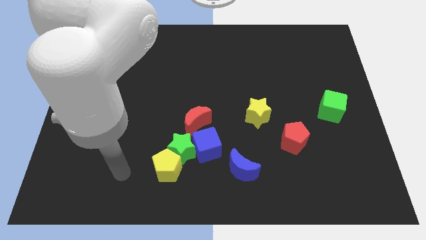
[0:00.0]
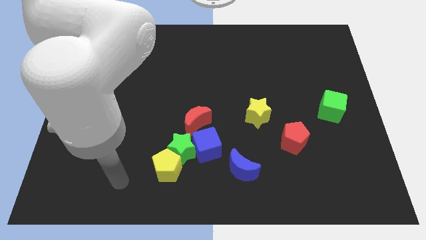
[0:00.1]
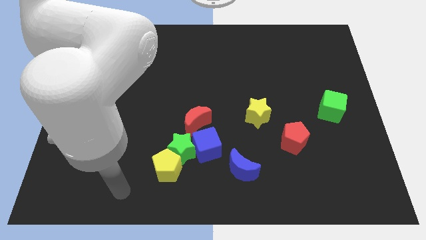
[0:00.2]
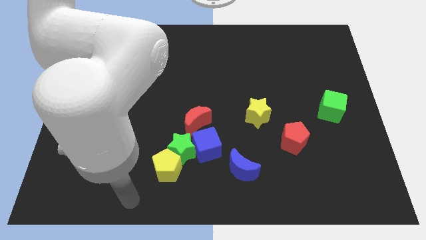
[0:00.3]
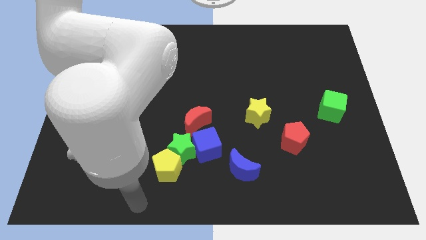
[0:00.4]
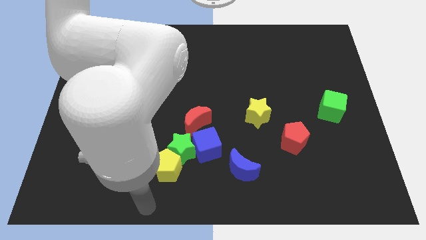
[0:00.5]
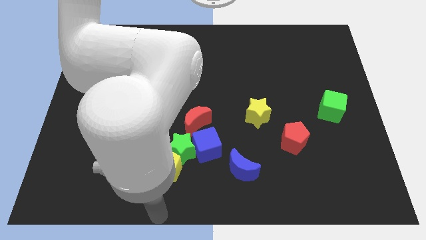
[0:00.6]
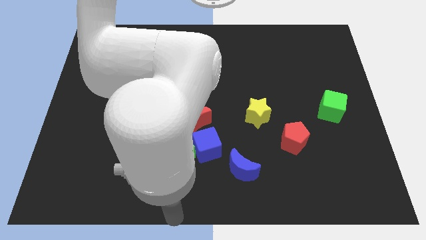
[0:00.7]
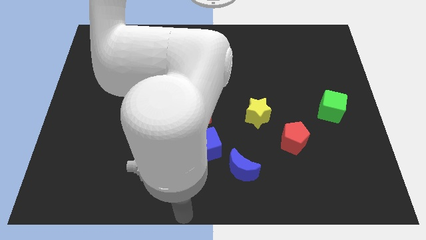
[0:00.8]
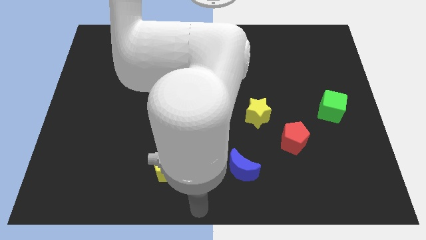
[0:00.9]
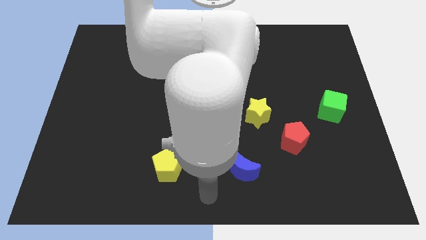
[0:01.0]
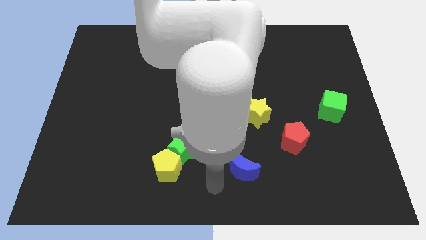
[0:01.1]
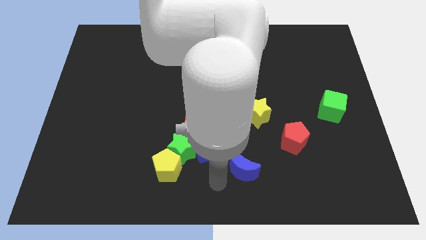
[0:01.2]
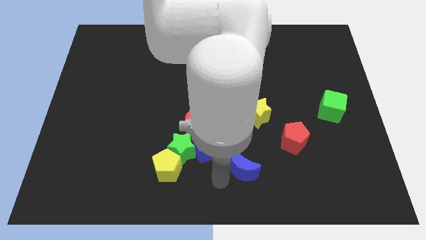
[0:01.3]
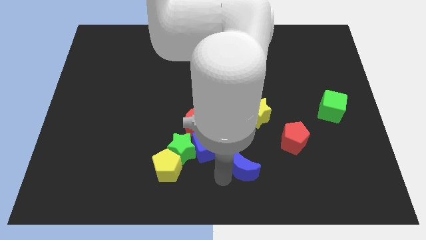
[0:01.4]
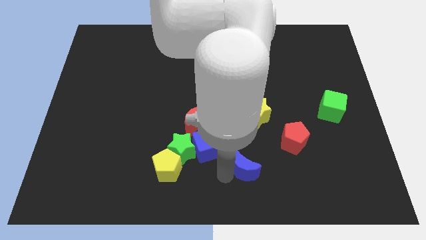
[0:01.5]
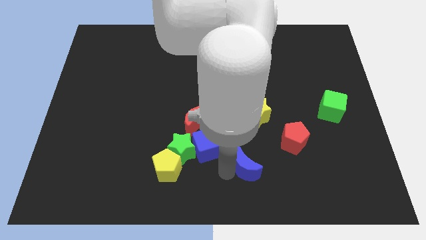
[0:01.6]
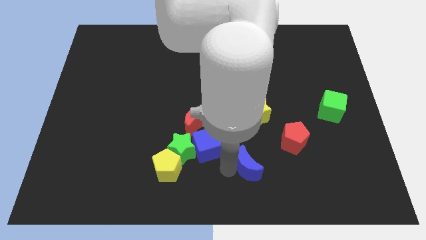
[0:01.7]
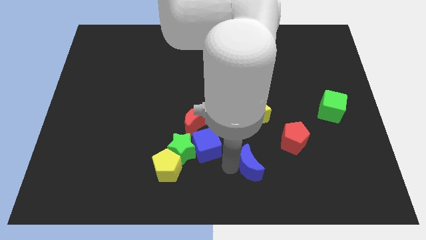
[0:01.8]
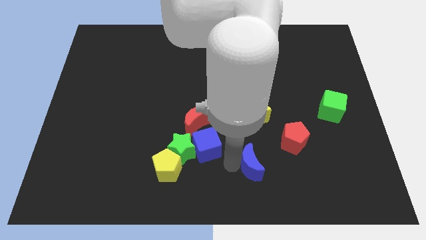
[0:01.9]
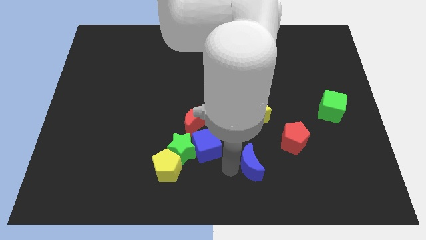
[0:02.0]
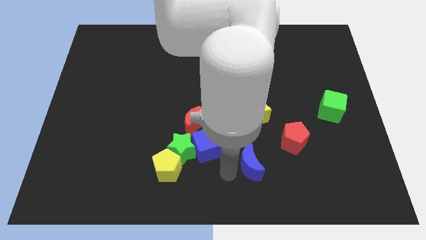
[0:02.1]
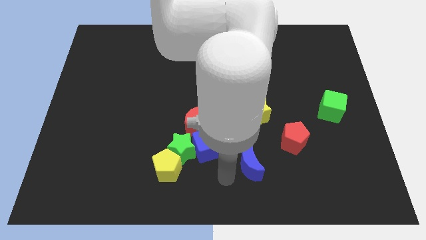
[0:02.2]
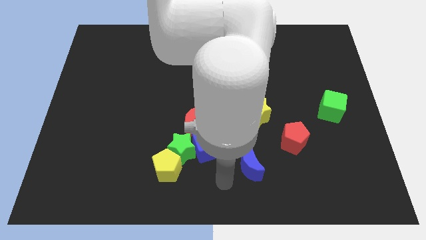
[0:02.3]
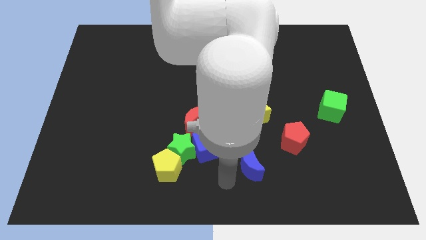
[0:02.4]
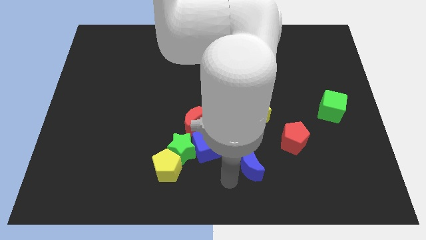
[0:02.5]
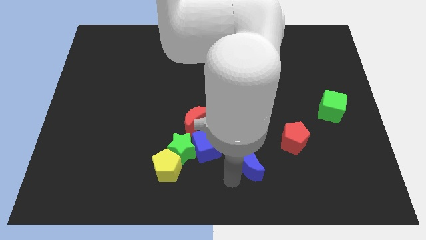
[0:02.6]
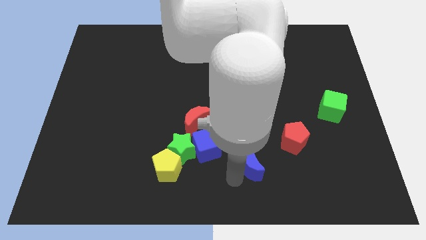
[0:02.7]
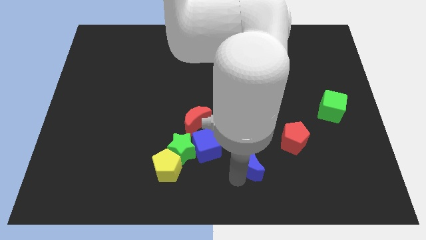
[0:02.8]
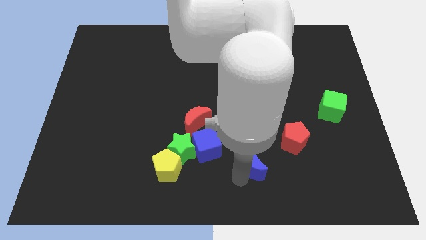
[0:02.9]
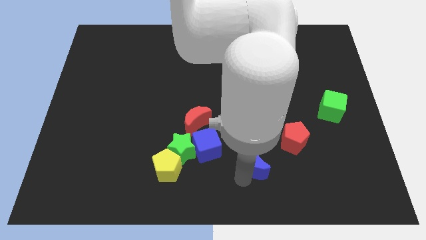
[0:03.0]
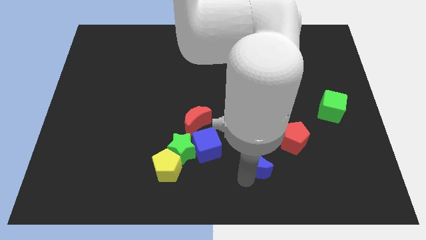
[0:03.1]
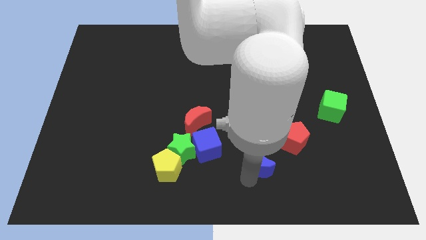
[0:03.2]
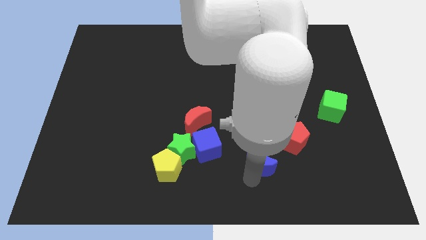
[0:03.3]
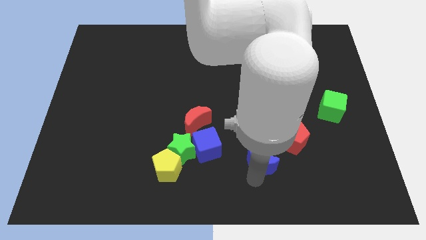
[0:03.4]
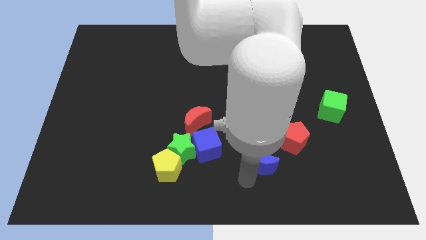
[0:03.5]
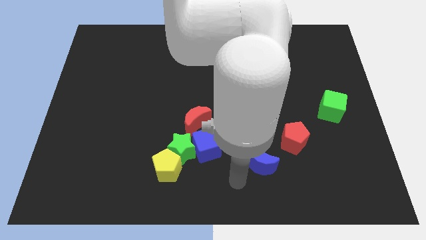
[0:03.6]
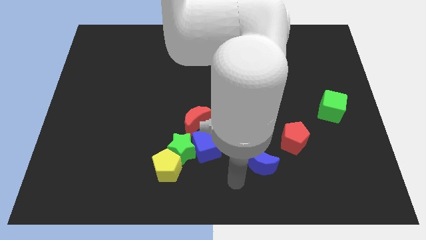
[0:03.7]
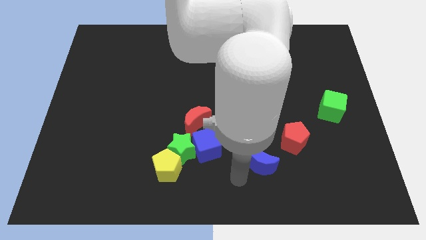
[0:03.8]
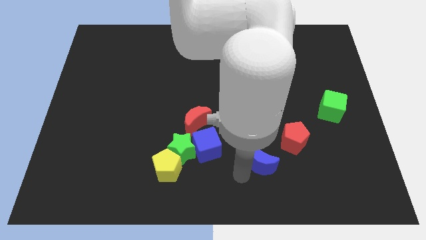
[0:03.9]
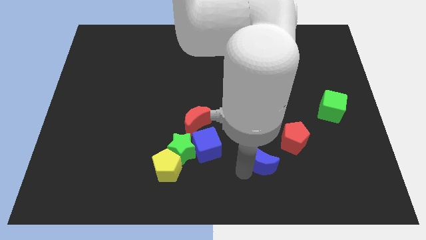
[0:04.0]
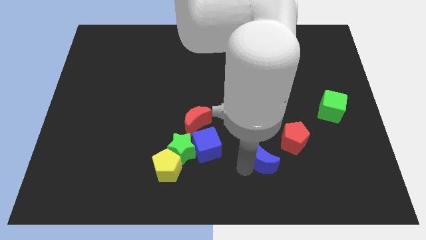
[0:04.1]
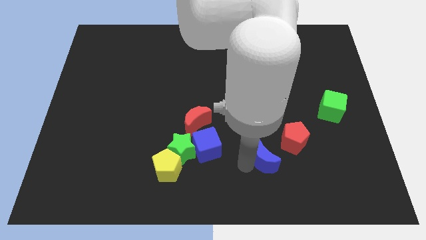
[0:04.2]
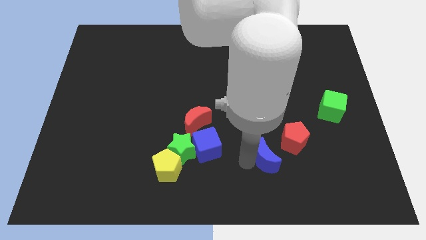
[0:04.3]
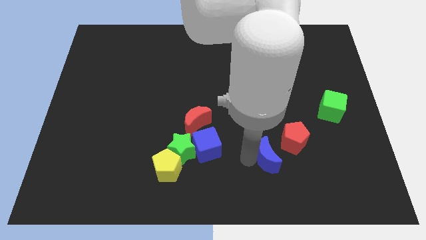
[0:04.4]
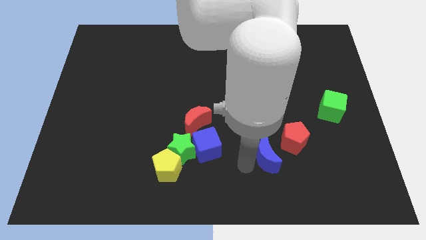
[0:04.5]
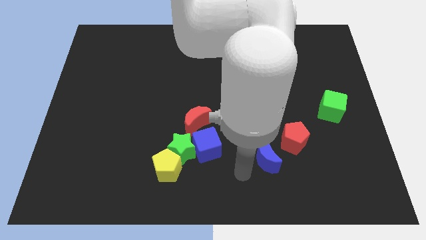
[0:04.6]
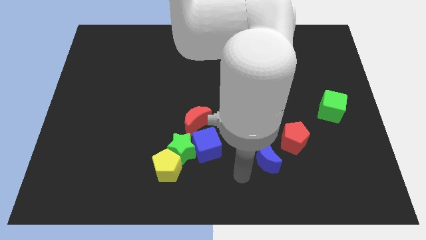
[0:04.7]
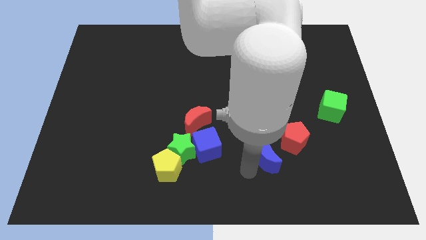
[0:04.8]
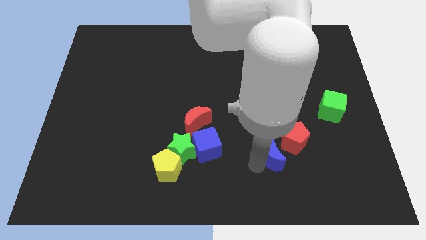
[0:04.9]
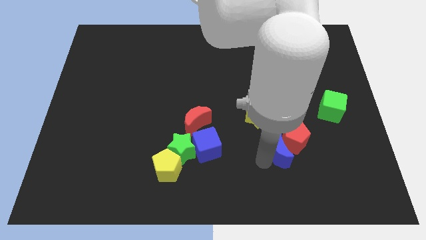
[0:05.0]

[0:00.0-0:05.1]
move the blue moon close to the red pentagon

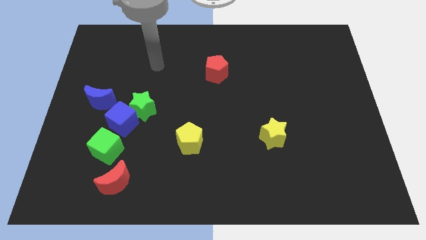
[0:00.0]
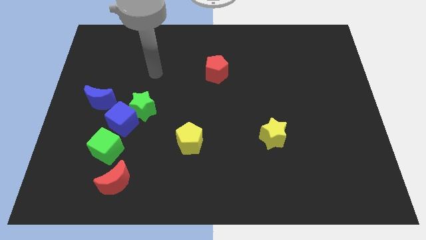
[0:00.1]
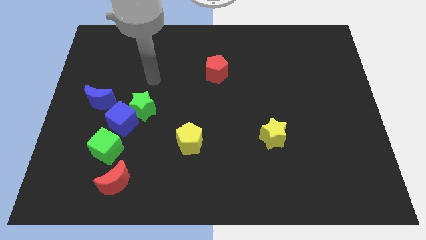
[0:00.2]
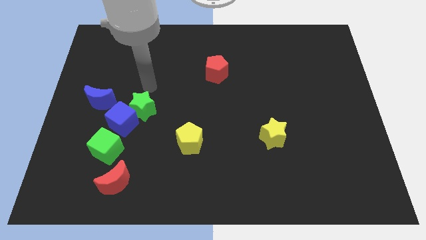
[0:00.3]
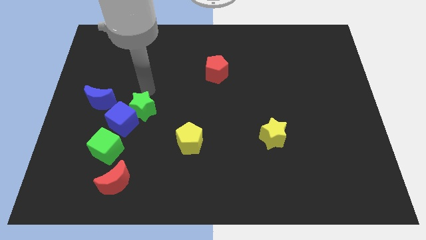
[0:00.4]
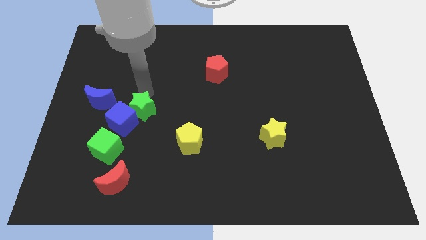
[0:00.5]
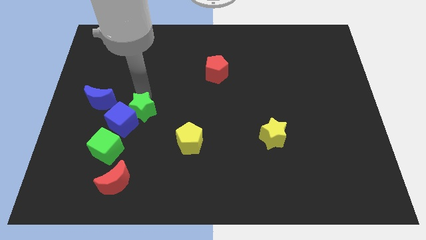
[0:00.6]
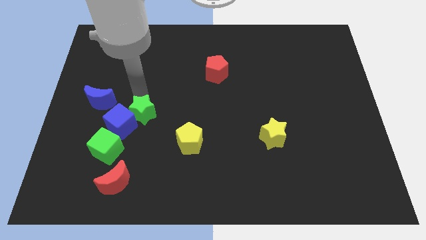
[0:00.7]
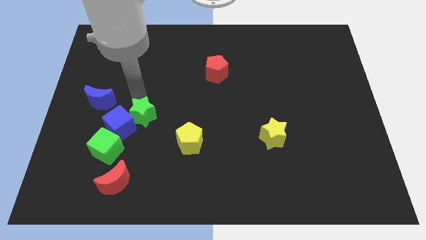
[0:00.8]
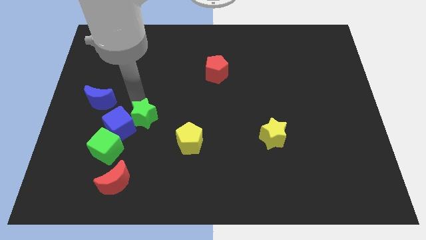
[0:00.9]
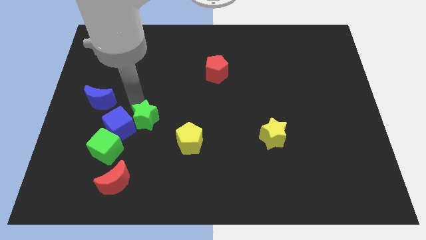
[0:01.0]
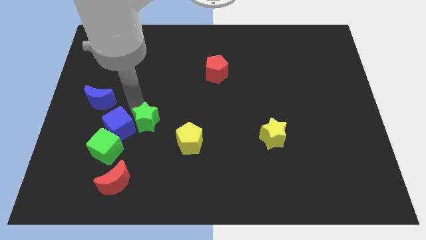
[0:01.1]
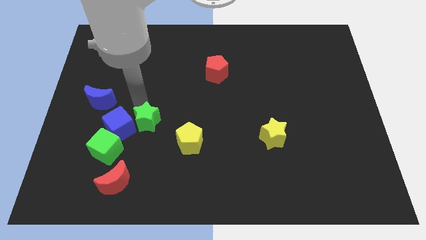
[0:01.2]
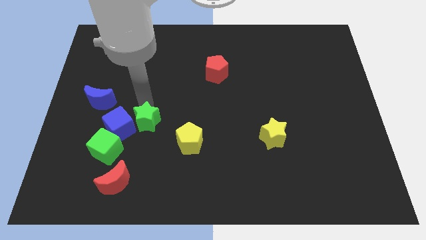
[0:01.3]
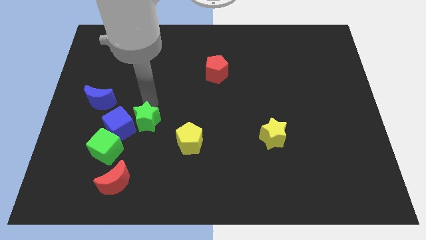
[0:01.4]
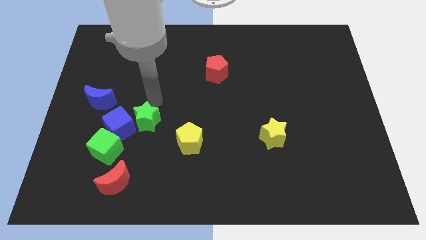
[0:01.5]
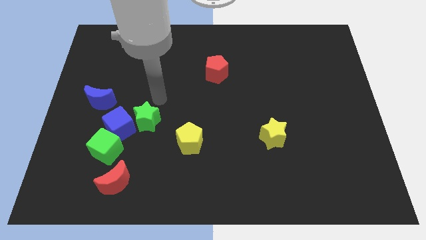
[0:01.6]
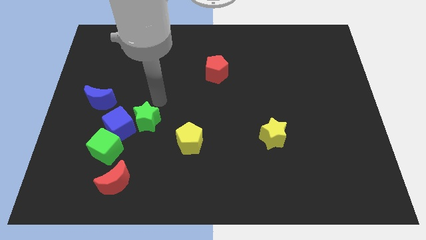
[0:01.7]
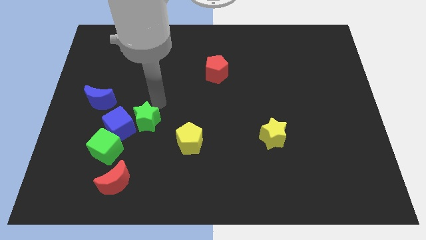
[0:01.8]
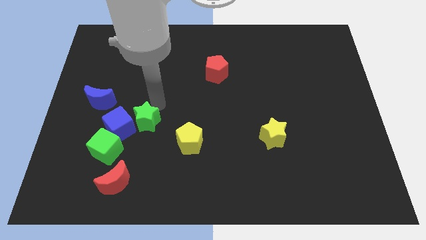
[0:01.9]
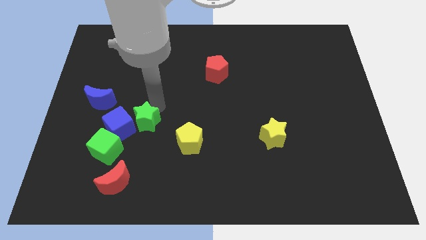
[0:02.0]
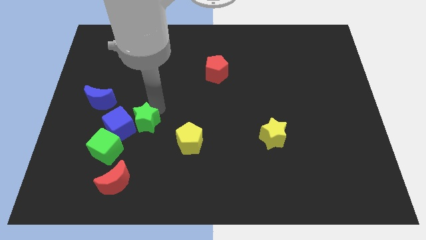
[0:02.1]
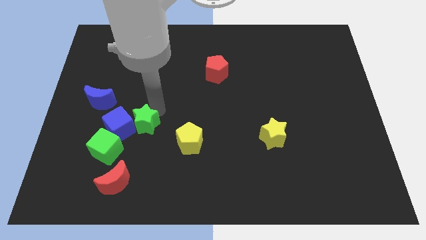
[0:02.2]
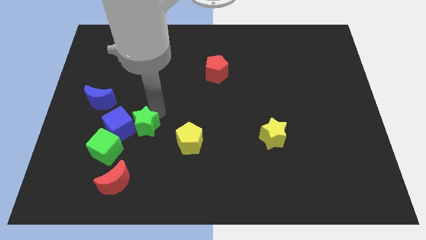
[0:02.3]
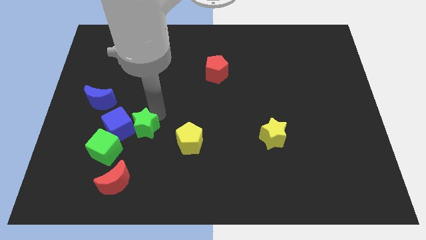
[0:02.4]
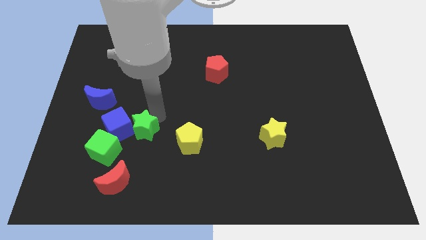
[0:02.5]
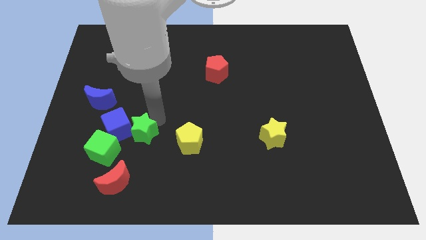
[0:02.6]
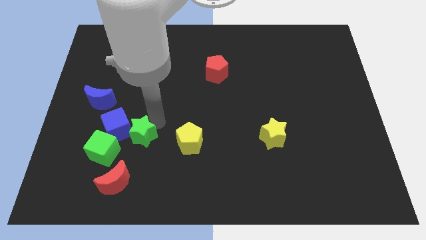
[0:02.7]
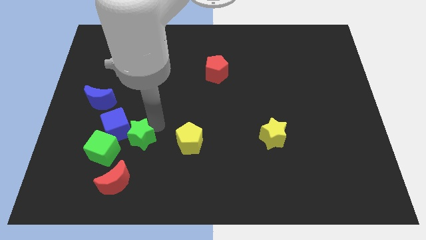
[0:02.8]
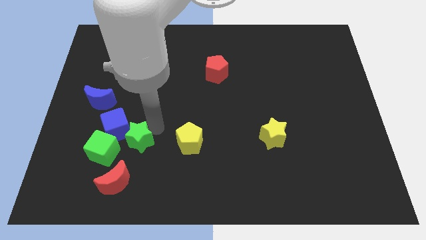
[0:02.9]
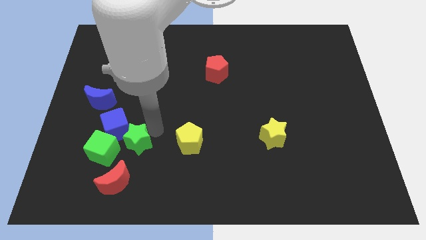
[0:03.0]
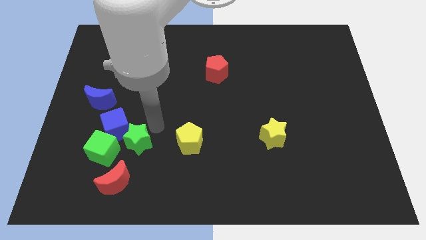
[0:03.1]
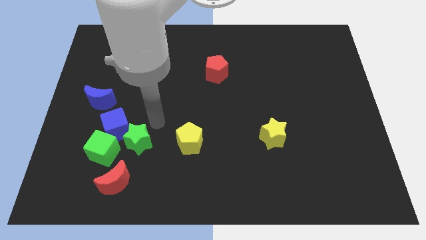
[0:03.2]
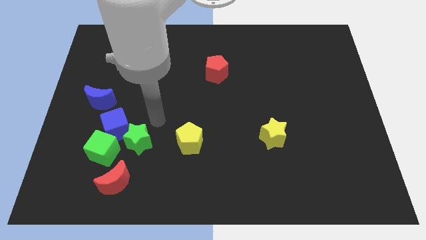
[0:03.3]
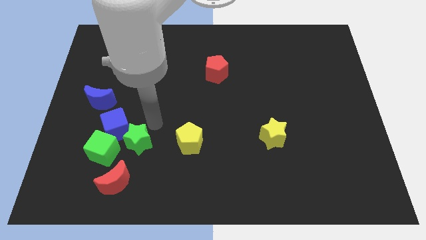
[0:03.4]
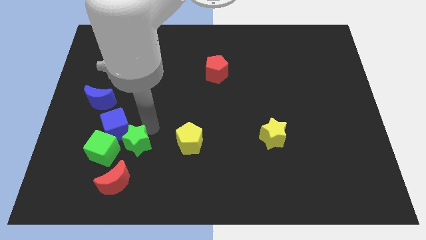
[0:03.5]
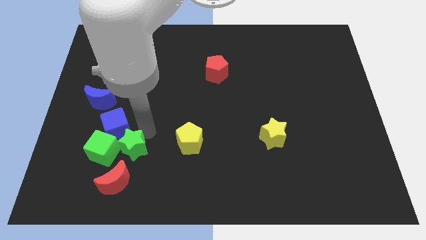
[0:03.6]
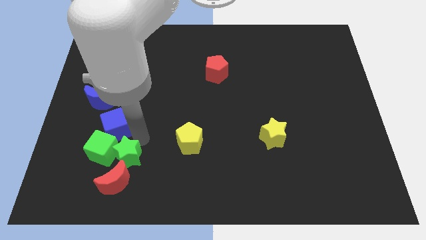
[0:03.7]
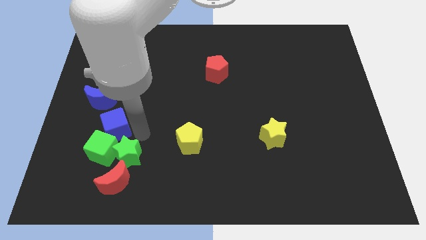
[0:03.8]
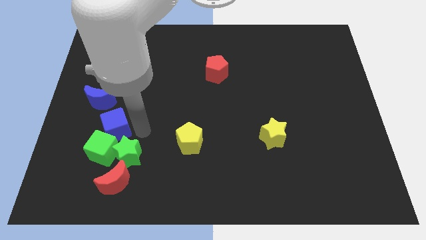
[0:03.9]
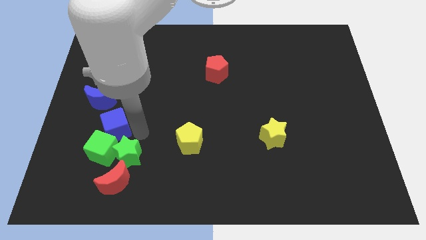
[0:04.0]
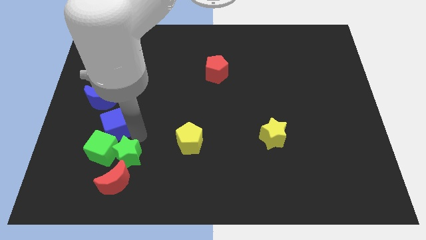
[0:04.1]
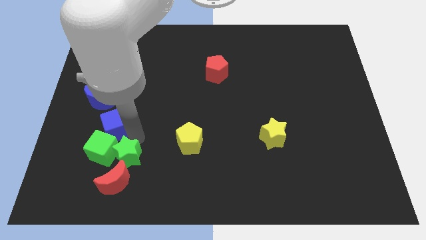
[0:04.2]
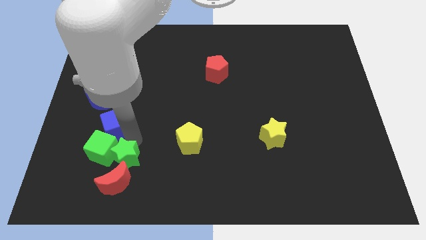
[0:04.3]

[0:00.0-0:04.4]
push the green star to the red moon
